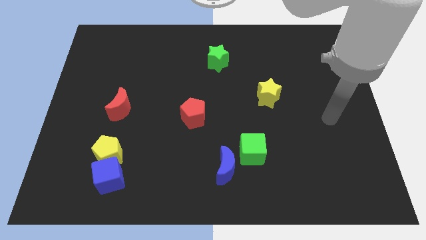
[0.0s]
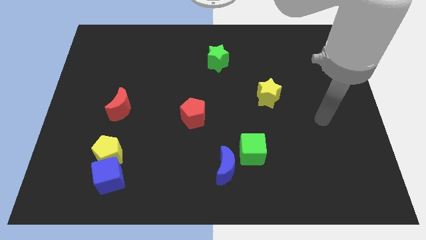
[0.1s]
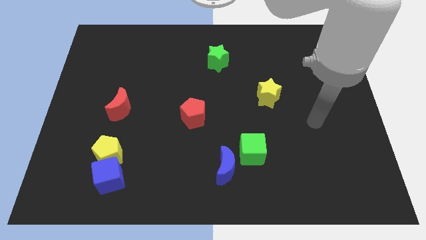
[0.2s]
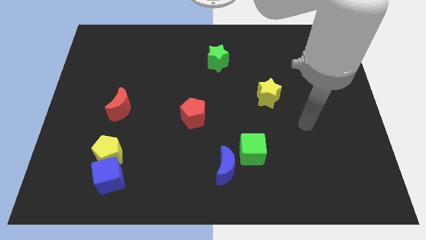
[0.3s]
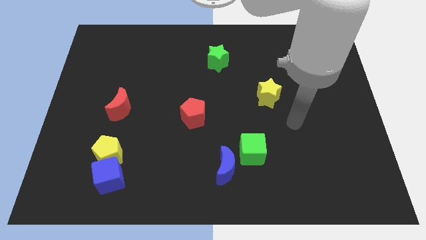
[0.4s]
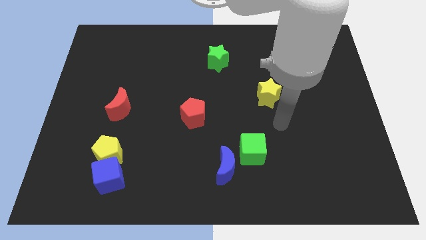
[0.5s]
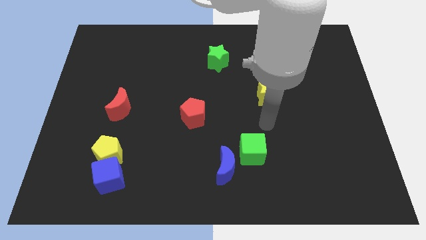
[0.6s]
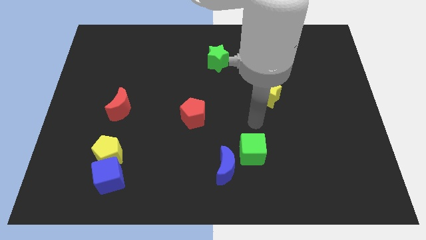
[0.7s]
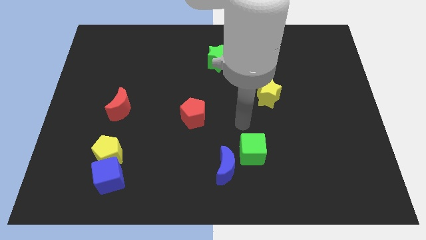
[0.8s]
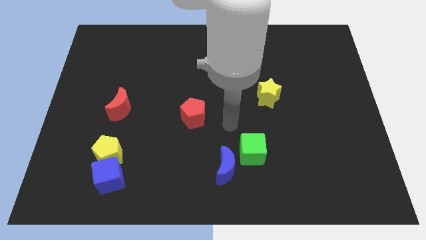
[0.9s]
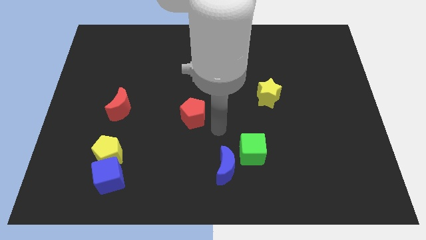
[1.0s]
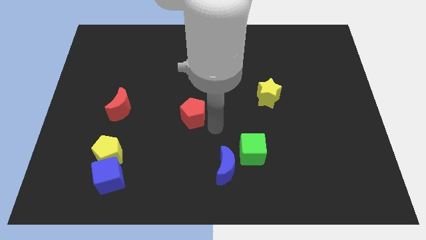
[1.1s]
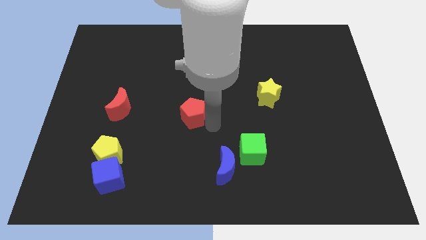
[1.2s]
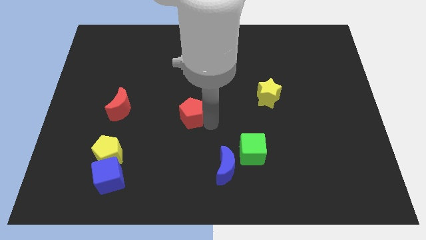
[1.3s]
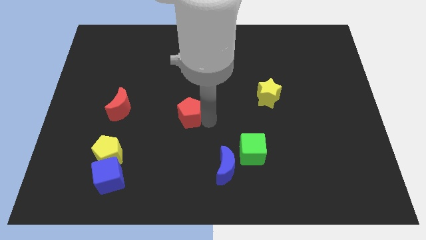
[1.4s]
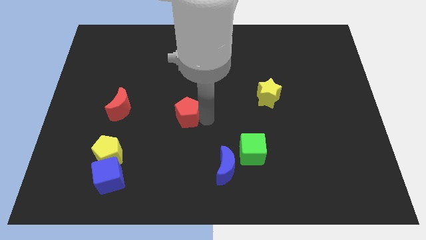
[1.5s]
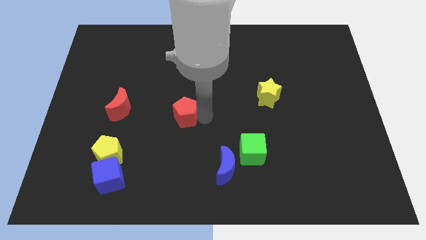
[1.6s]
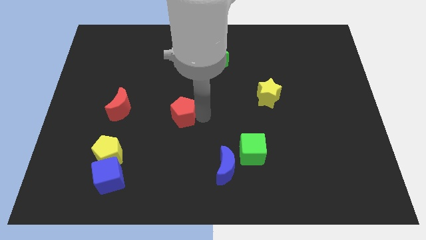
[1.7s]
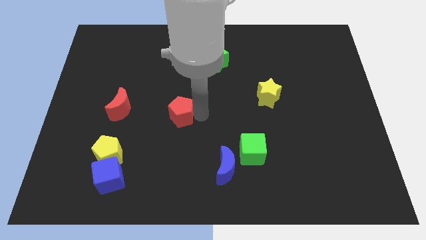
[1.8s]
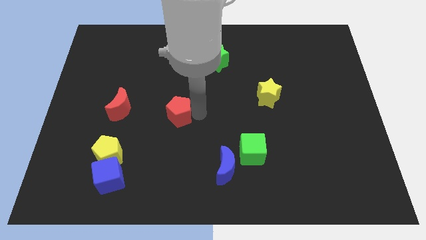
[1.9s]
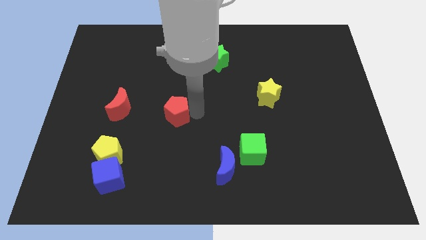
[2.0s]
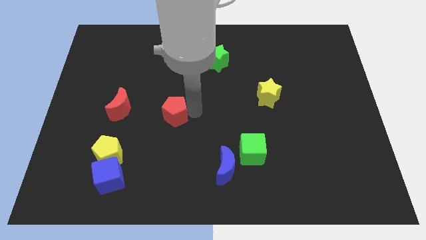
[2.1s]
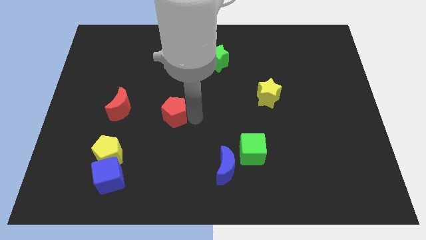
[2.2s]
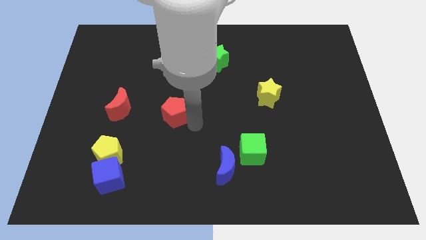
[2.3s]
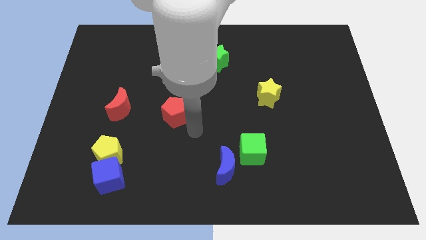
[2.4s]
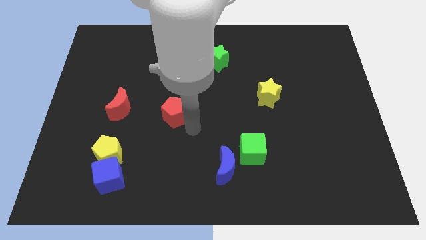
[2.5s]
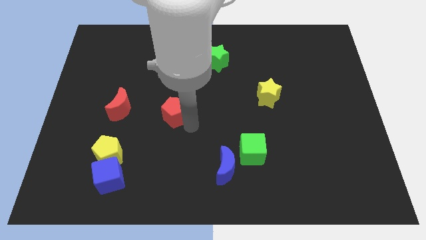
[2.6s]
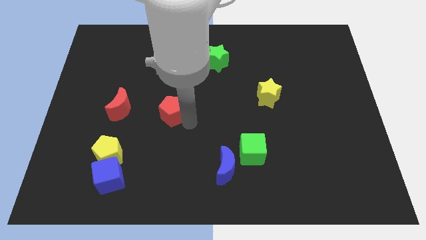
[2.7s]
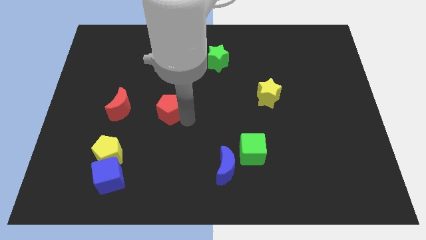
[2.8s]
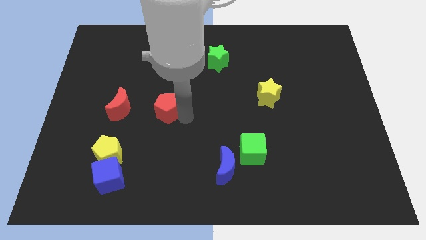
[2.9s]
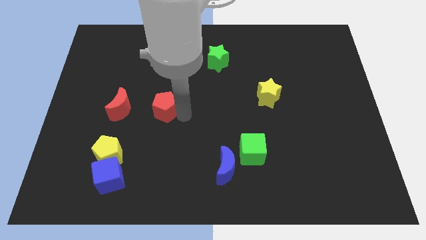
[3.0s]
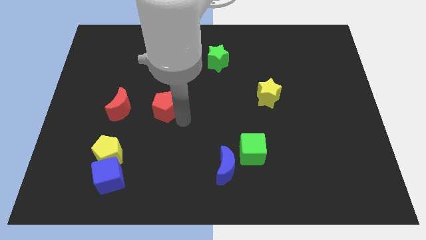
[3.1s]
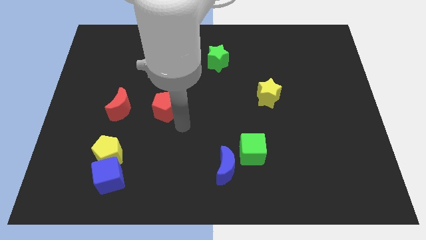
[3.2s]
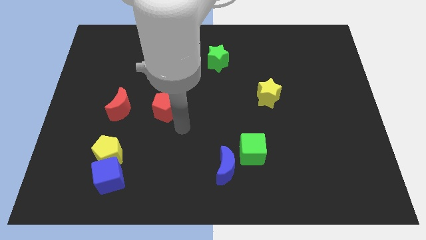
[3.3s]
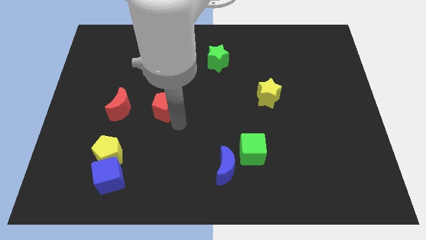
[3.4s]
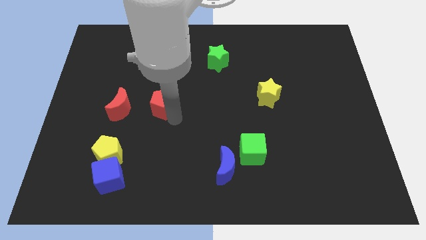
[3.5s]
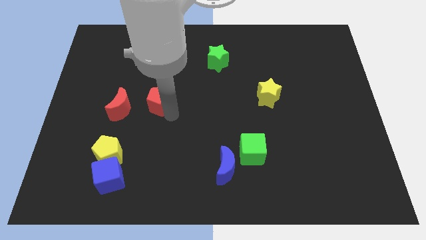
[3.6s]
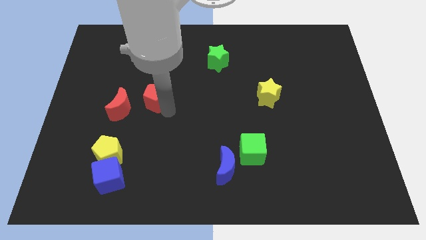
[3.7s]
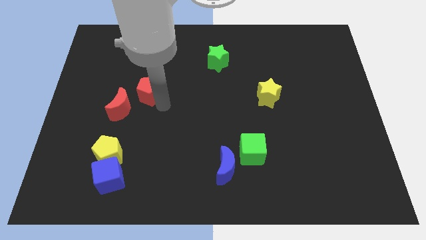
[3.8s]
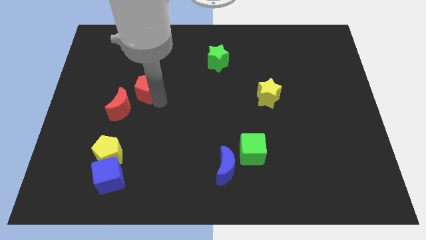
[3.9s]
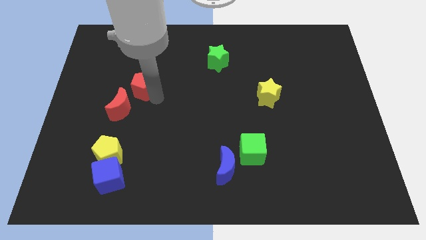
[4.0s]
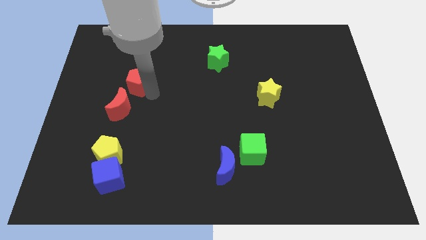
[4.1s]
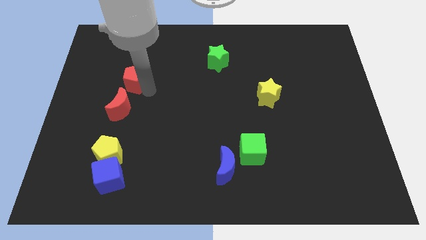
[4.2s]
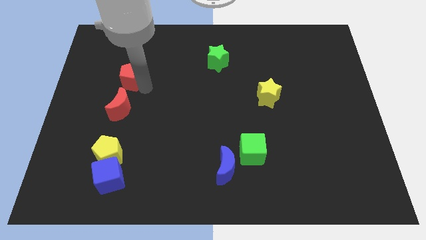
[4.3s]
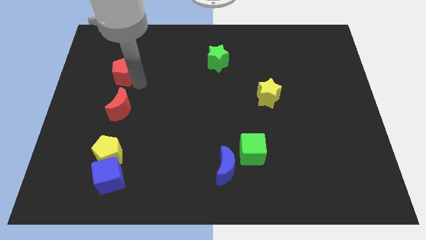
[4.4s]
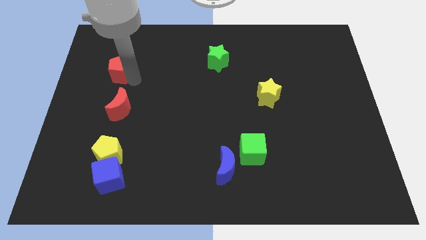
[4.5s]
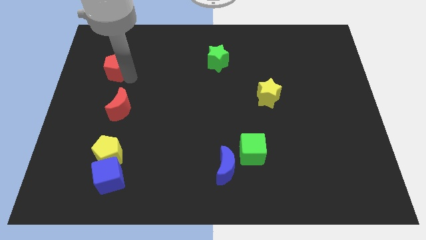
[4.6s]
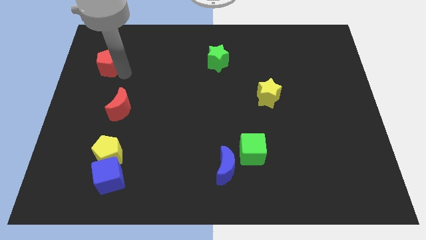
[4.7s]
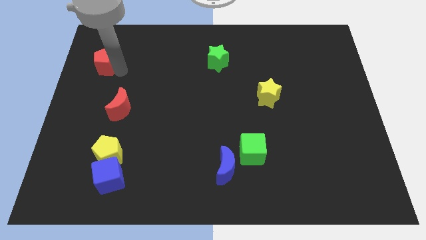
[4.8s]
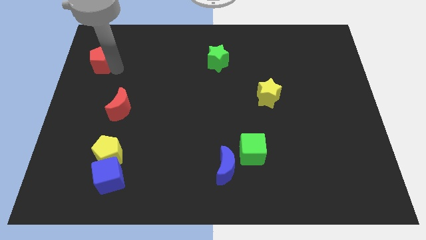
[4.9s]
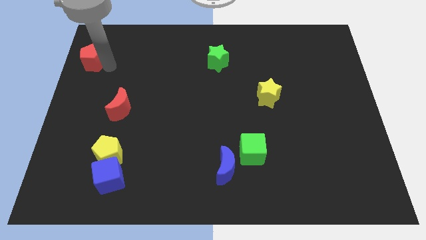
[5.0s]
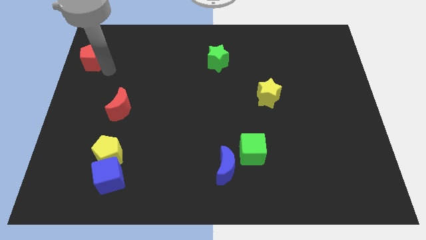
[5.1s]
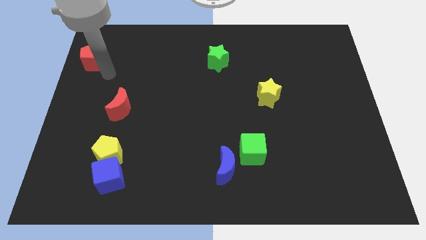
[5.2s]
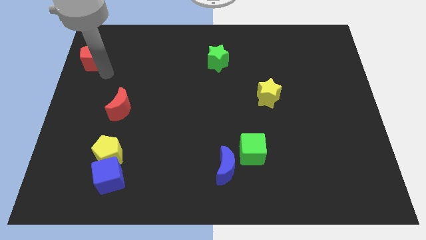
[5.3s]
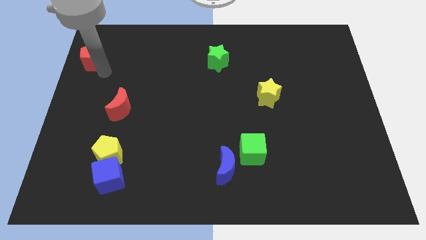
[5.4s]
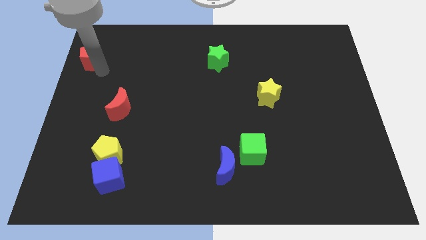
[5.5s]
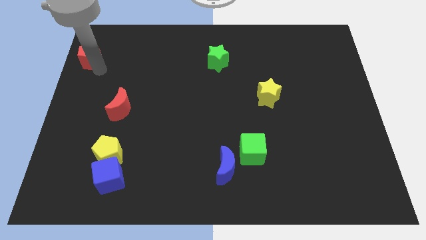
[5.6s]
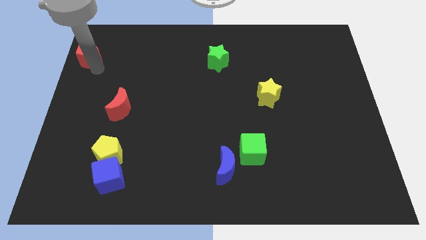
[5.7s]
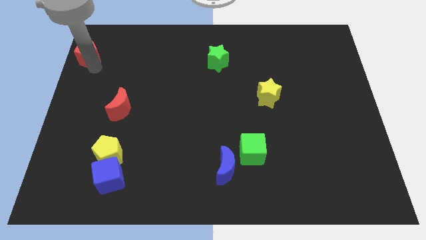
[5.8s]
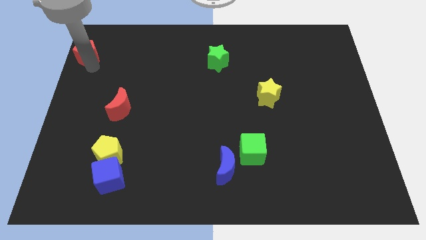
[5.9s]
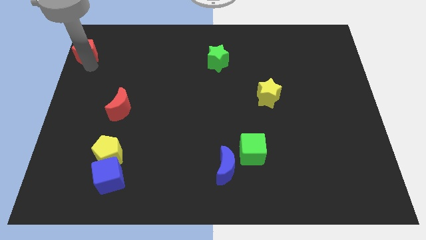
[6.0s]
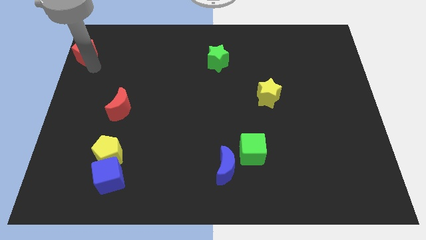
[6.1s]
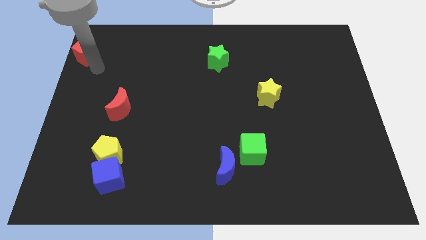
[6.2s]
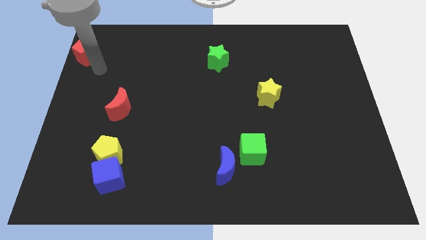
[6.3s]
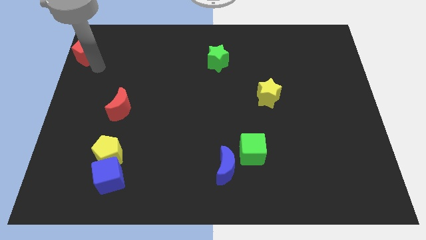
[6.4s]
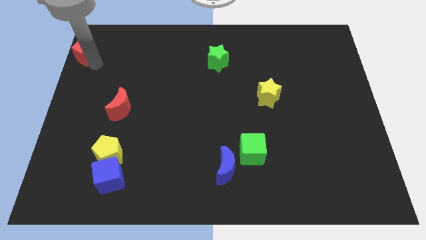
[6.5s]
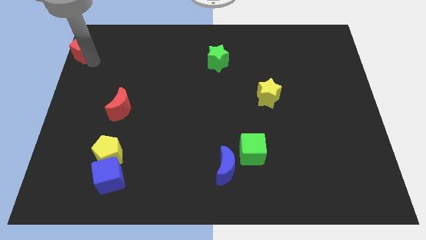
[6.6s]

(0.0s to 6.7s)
put the red pentagon to the top left corner
